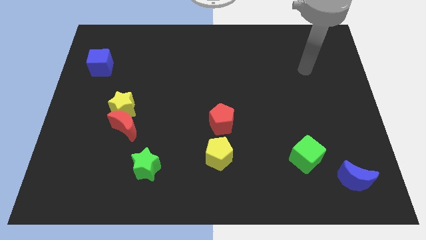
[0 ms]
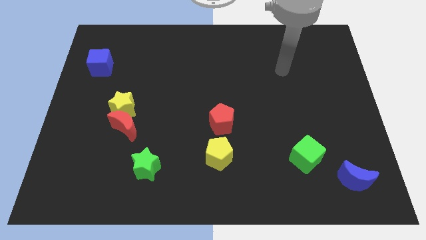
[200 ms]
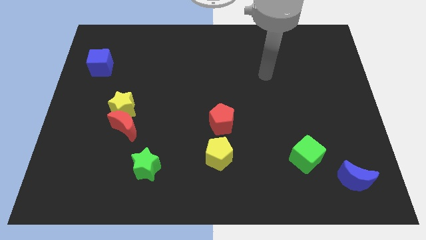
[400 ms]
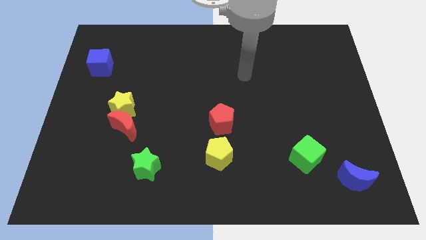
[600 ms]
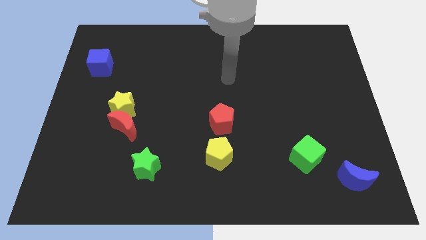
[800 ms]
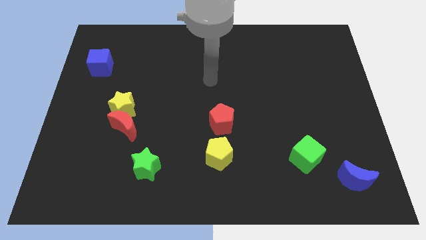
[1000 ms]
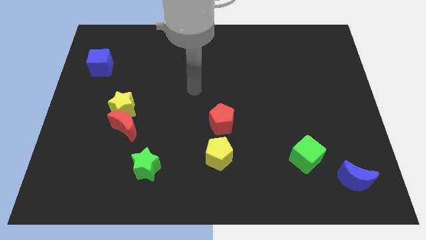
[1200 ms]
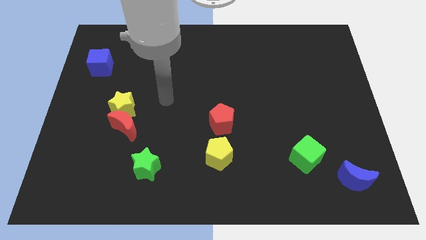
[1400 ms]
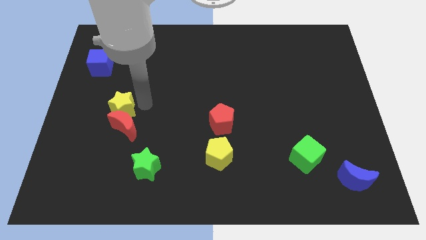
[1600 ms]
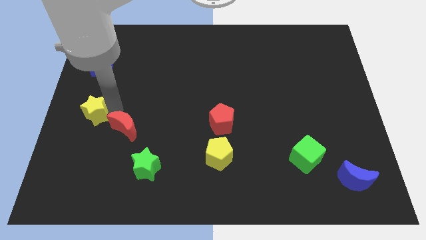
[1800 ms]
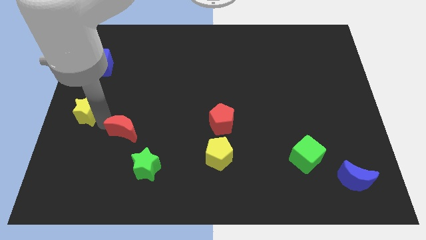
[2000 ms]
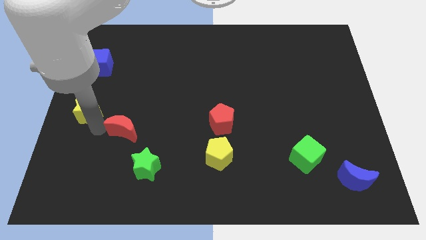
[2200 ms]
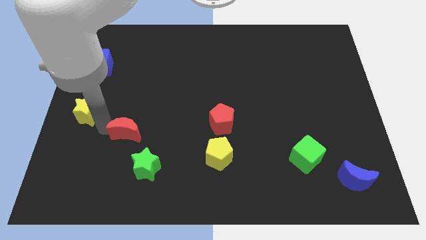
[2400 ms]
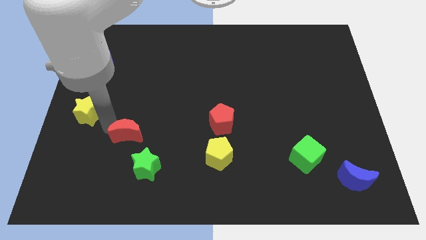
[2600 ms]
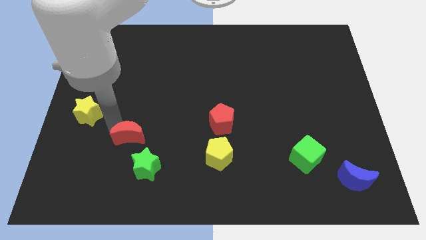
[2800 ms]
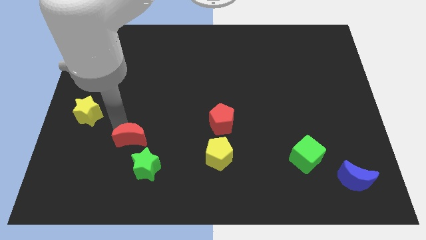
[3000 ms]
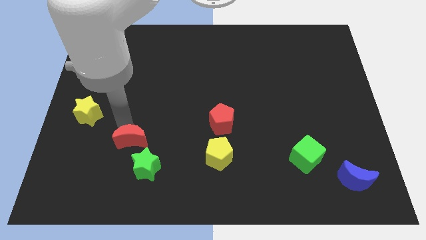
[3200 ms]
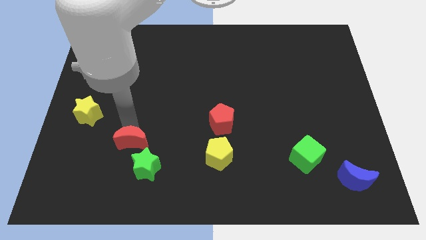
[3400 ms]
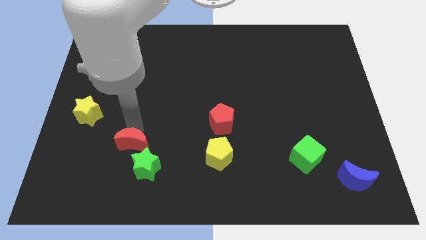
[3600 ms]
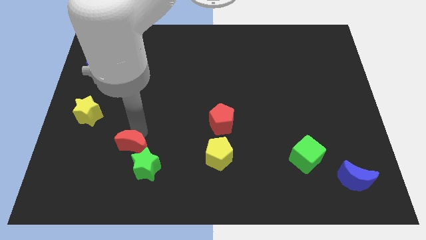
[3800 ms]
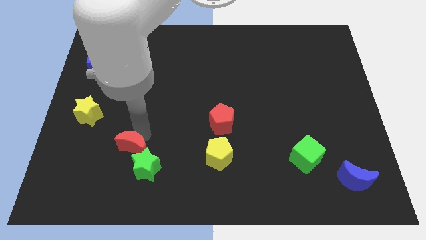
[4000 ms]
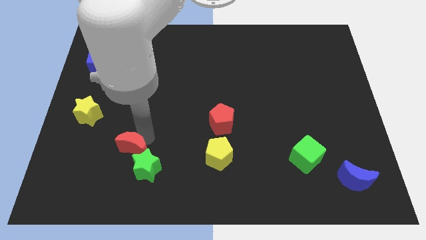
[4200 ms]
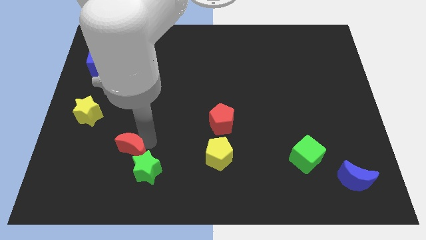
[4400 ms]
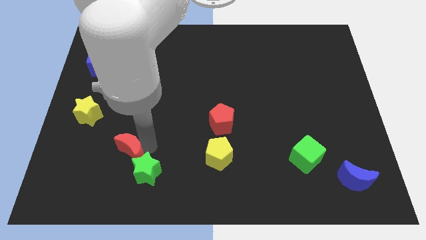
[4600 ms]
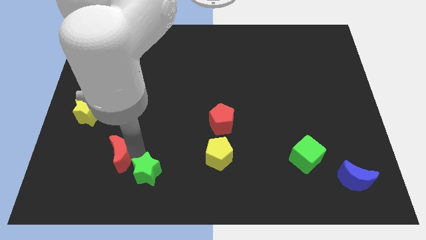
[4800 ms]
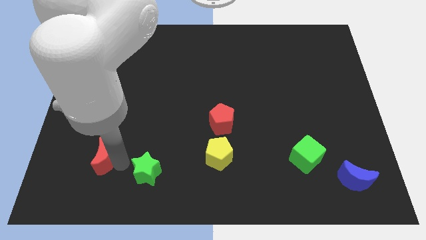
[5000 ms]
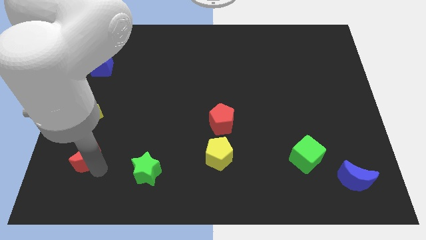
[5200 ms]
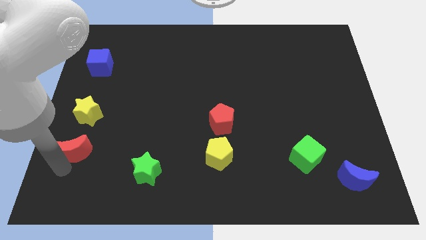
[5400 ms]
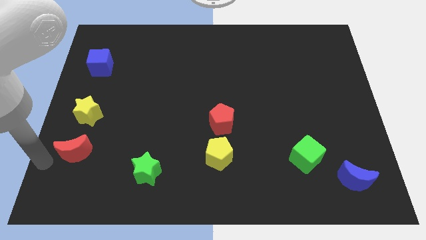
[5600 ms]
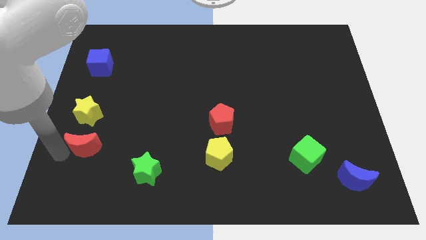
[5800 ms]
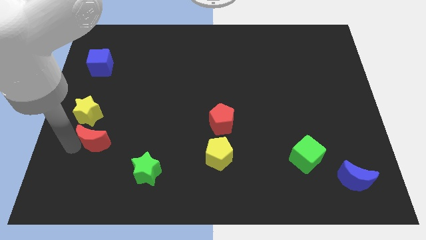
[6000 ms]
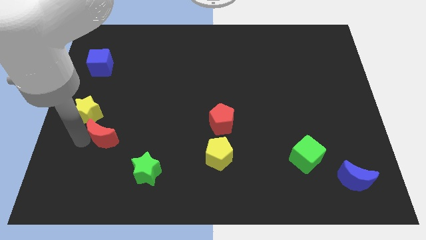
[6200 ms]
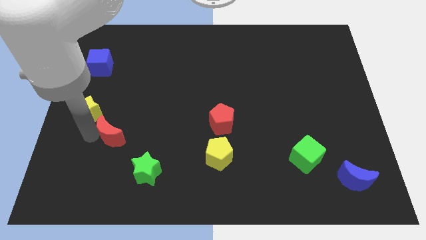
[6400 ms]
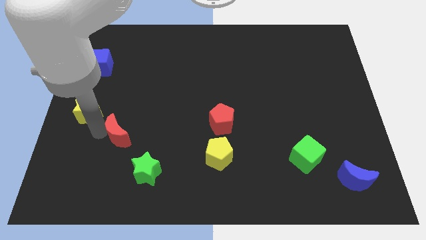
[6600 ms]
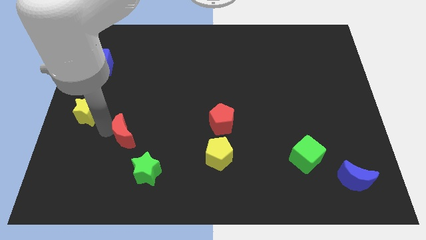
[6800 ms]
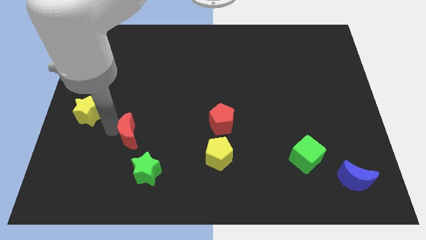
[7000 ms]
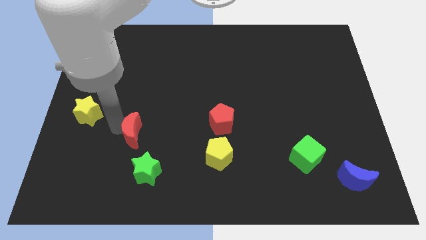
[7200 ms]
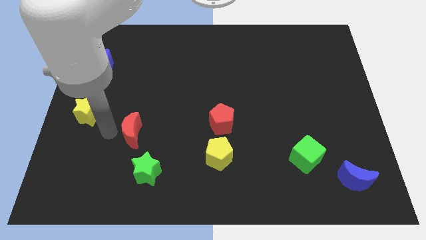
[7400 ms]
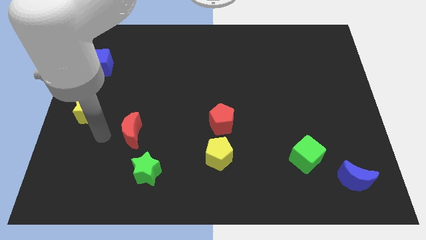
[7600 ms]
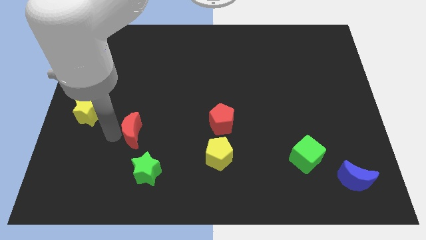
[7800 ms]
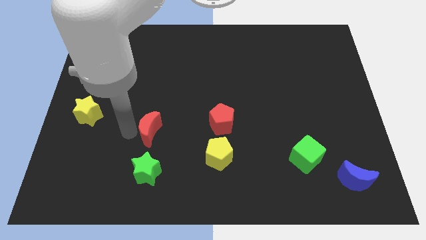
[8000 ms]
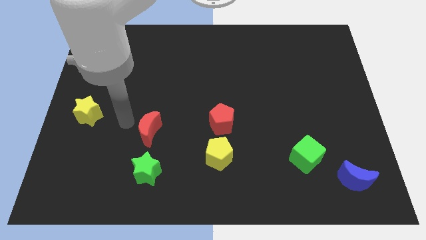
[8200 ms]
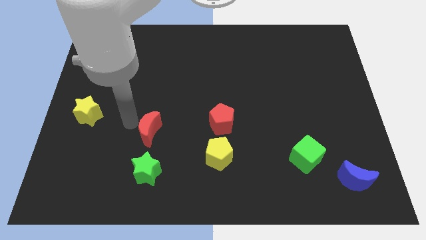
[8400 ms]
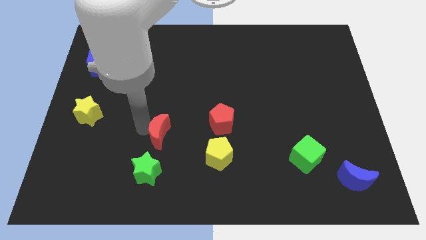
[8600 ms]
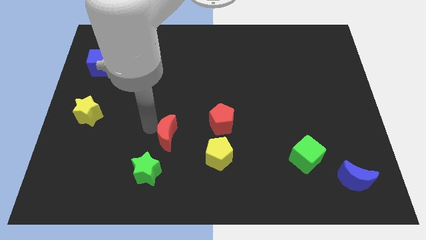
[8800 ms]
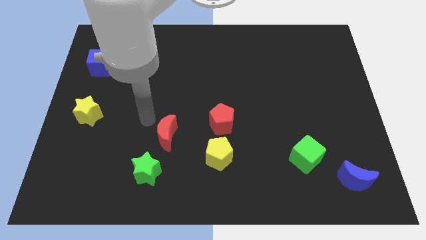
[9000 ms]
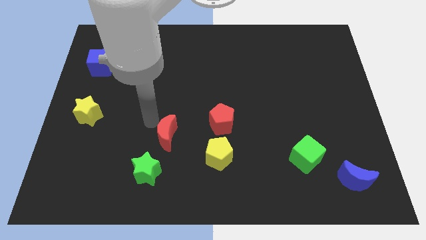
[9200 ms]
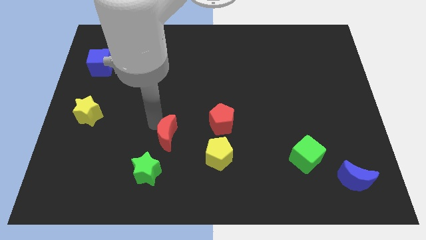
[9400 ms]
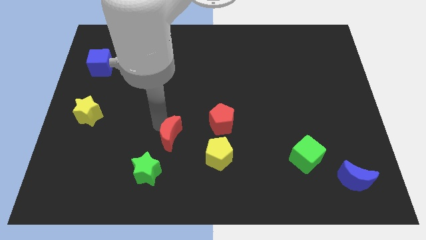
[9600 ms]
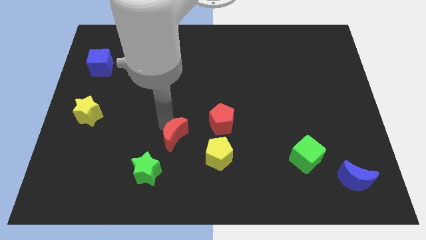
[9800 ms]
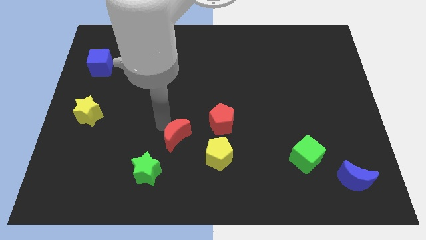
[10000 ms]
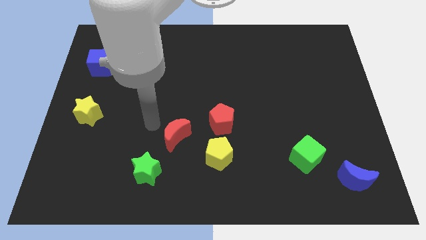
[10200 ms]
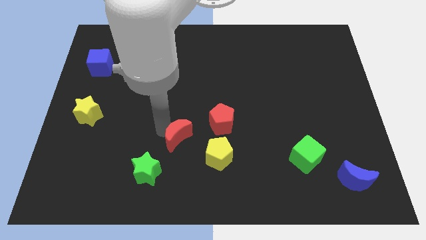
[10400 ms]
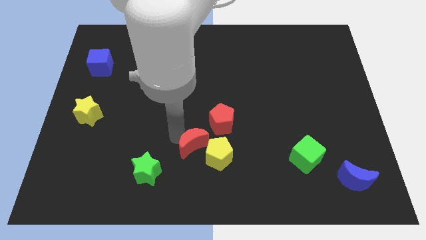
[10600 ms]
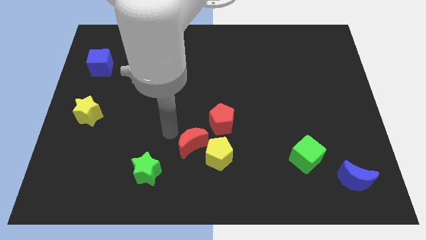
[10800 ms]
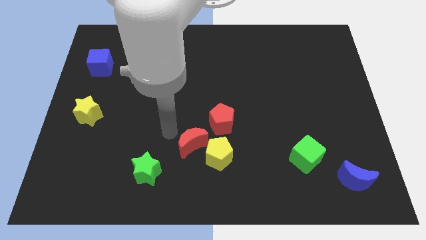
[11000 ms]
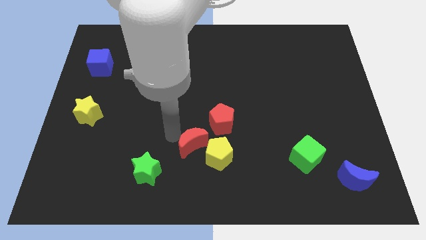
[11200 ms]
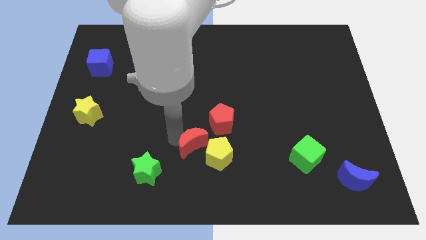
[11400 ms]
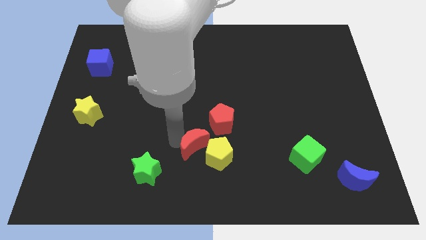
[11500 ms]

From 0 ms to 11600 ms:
put the red moon to the yellow pentagon

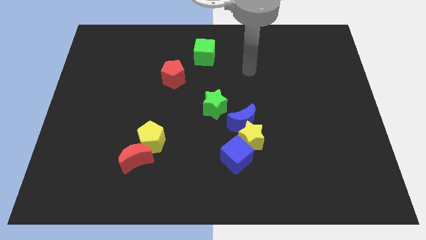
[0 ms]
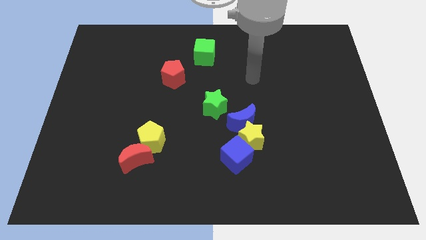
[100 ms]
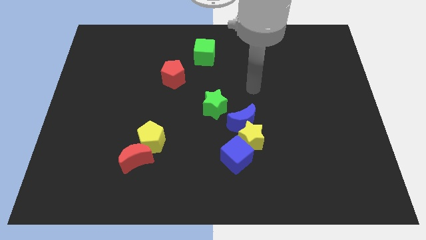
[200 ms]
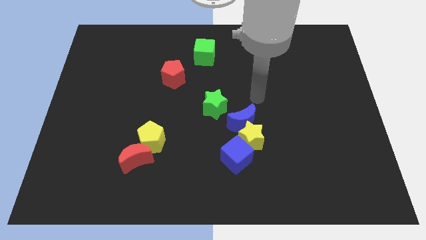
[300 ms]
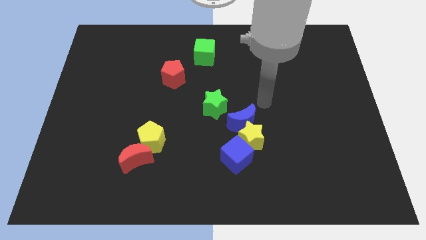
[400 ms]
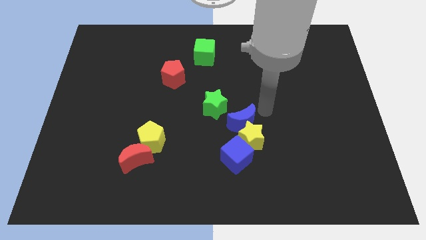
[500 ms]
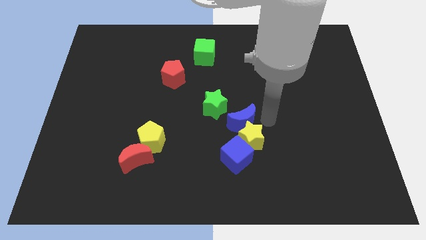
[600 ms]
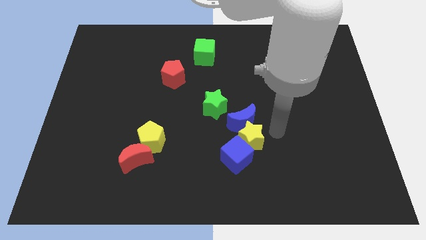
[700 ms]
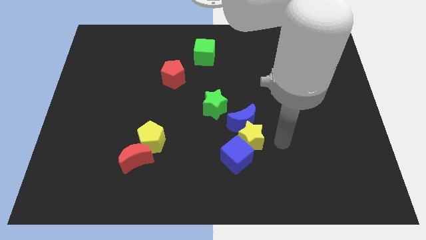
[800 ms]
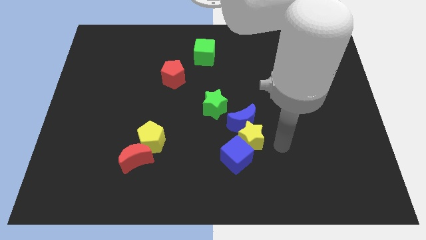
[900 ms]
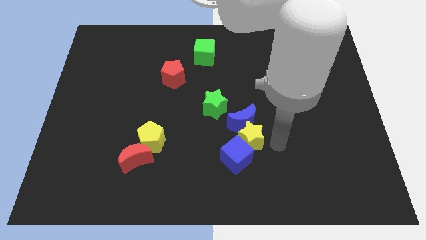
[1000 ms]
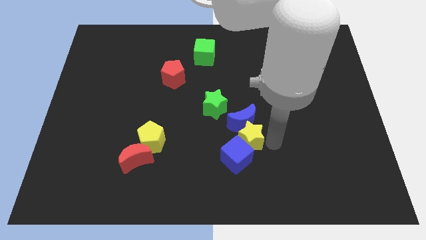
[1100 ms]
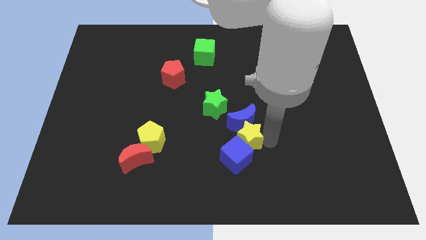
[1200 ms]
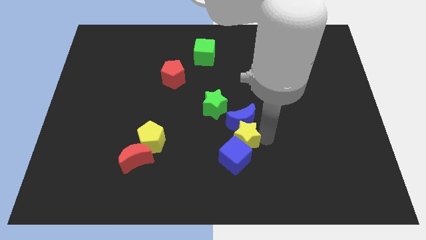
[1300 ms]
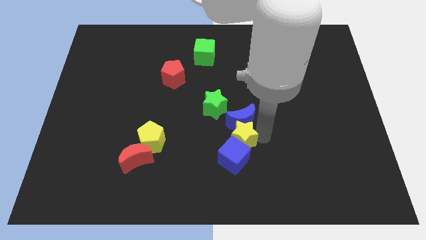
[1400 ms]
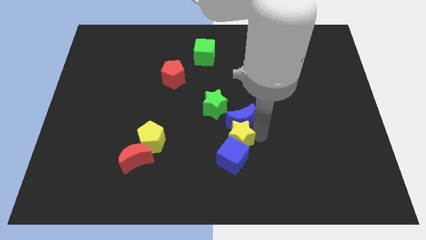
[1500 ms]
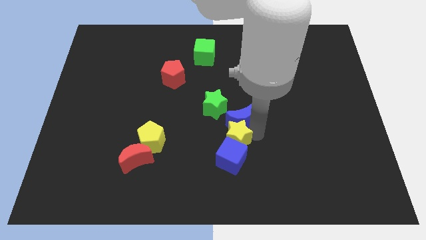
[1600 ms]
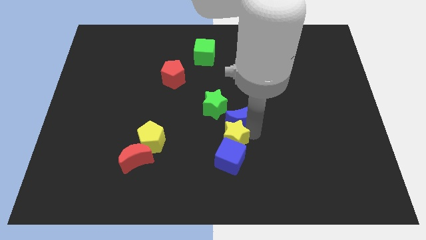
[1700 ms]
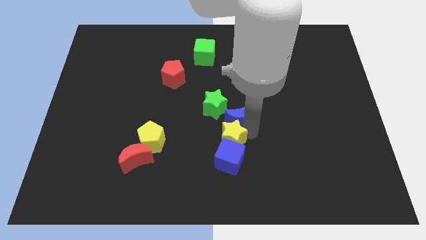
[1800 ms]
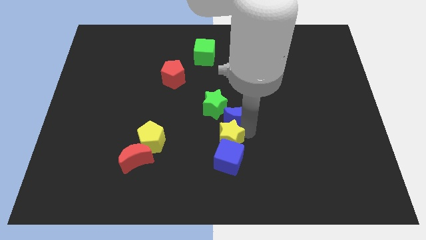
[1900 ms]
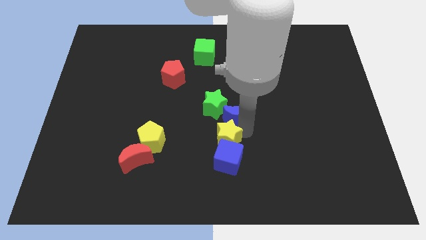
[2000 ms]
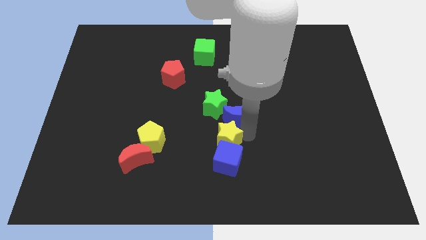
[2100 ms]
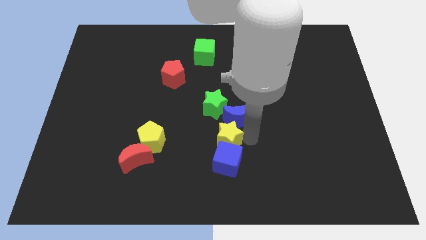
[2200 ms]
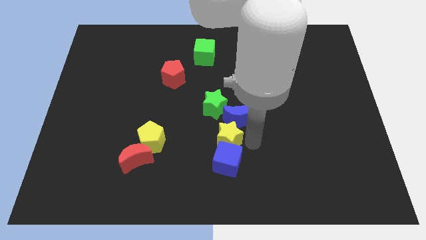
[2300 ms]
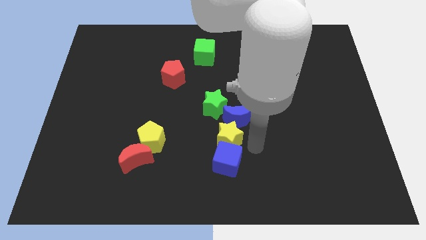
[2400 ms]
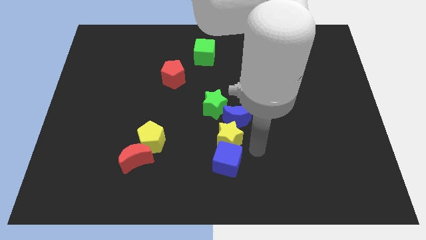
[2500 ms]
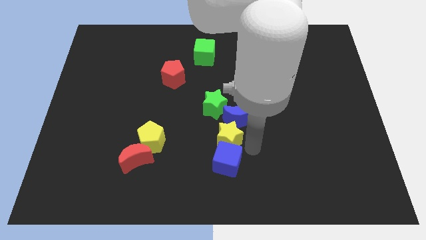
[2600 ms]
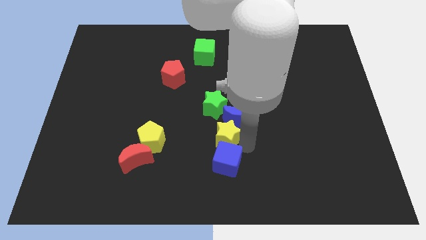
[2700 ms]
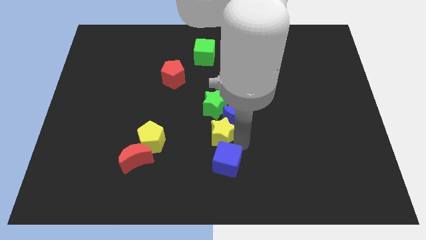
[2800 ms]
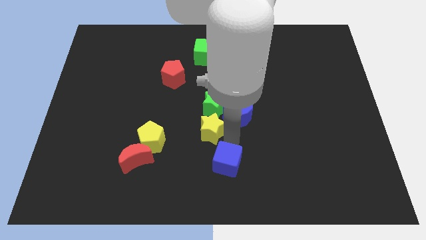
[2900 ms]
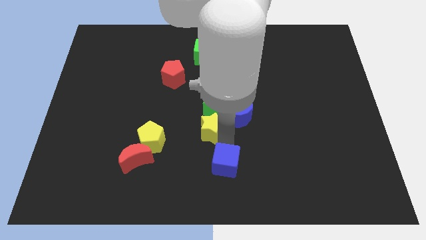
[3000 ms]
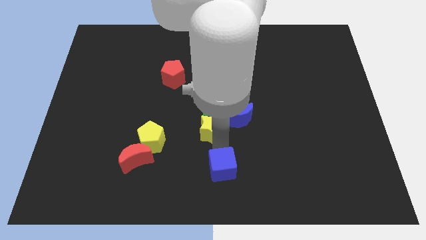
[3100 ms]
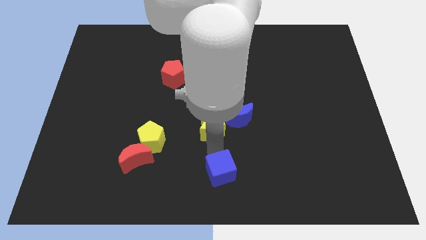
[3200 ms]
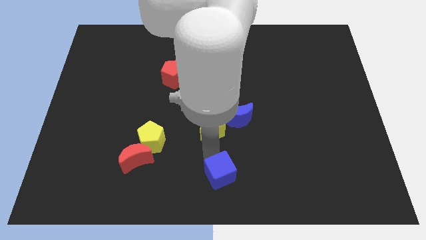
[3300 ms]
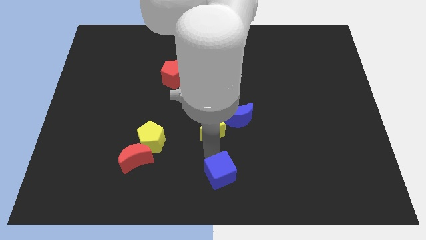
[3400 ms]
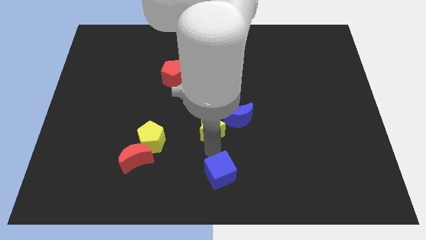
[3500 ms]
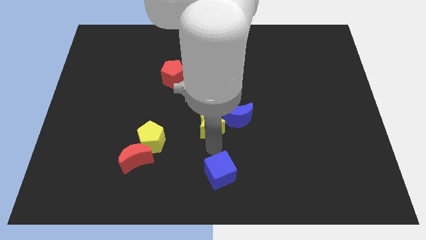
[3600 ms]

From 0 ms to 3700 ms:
push the yellow star towards the green star
